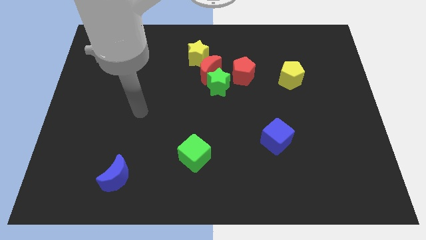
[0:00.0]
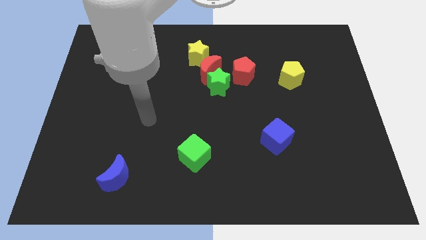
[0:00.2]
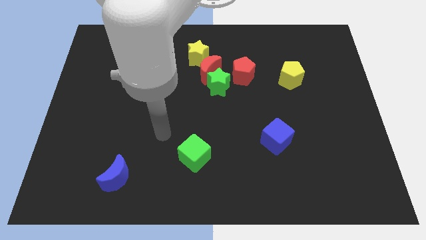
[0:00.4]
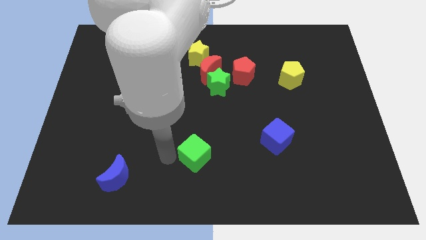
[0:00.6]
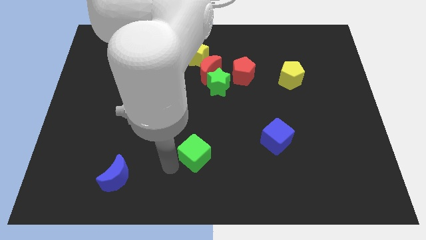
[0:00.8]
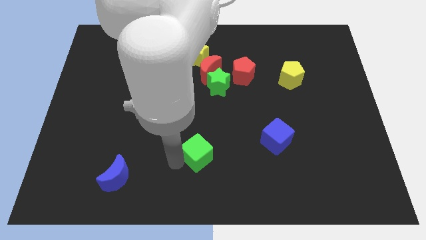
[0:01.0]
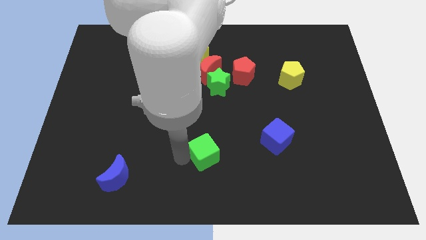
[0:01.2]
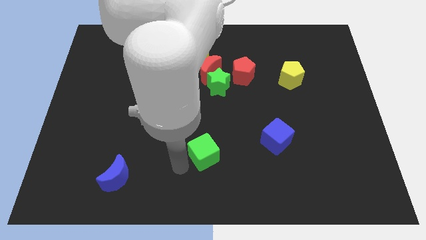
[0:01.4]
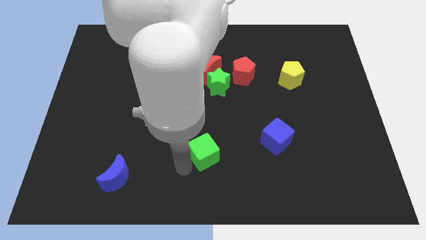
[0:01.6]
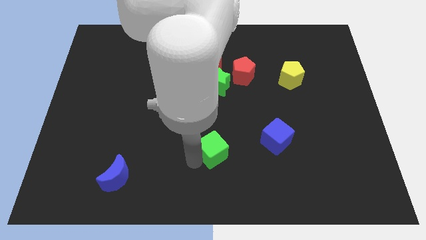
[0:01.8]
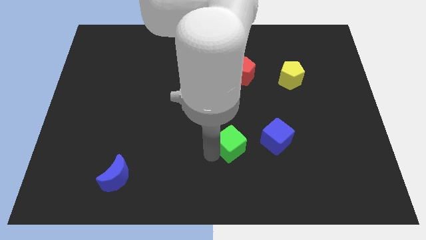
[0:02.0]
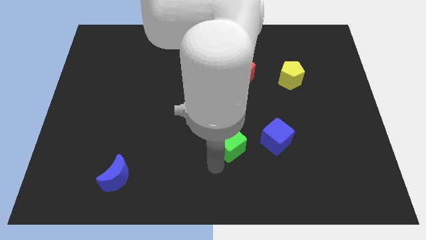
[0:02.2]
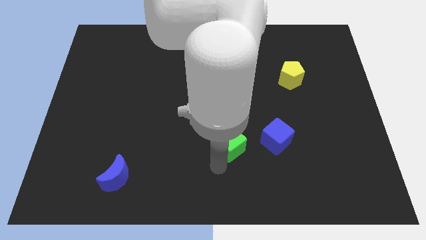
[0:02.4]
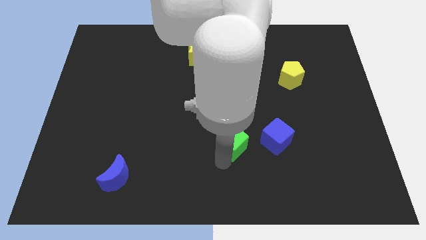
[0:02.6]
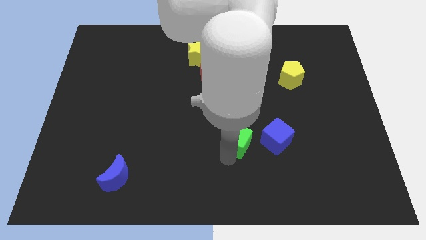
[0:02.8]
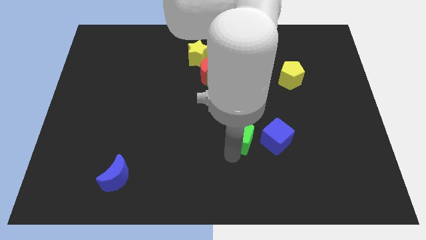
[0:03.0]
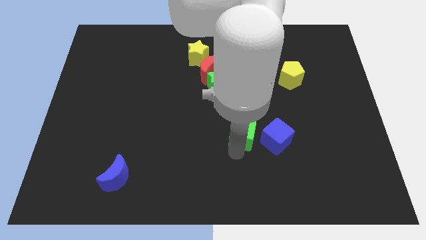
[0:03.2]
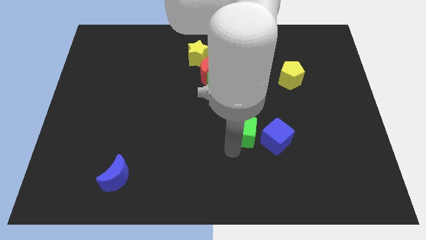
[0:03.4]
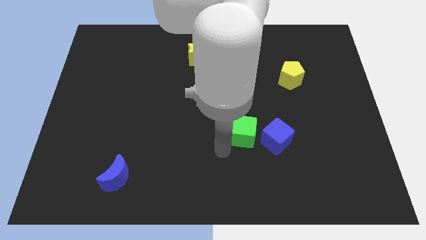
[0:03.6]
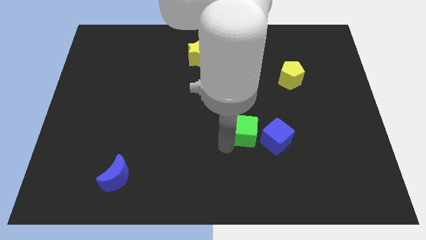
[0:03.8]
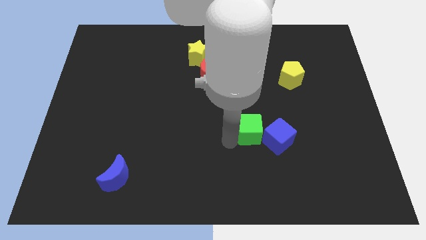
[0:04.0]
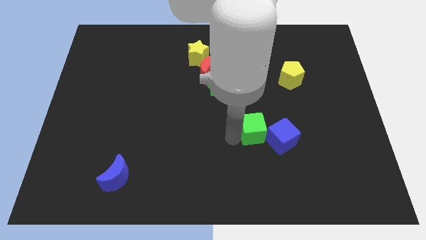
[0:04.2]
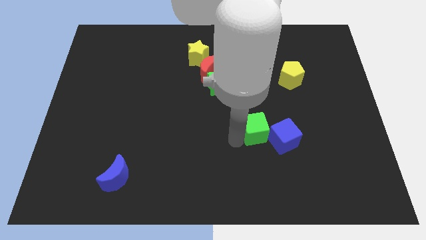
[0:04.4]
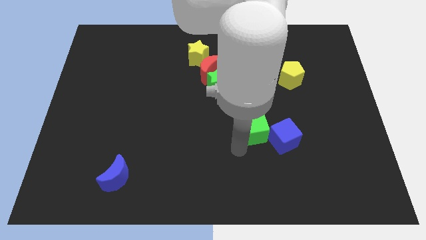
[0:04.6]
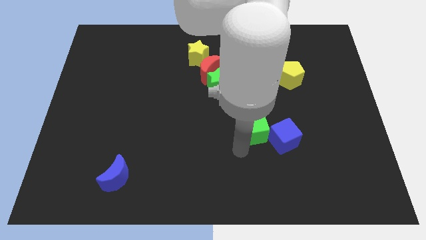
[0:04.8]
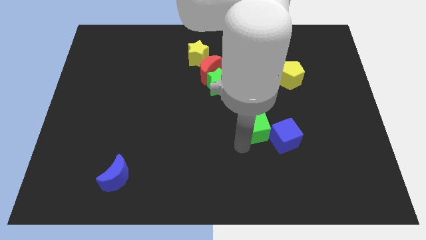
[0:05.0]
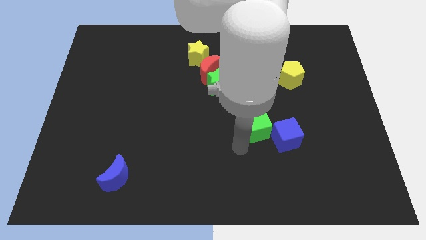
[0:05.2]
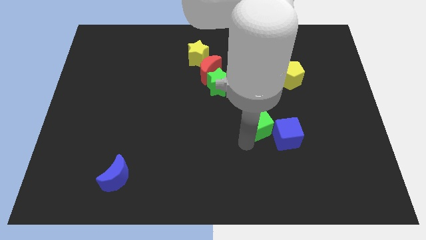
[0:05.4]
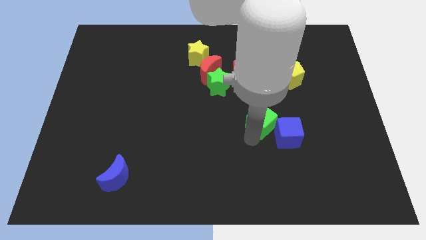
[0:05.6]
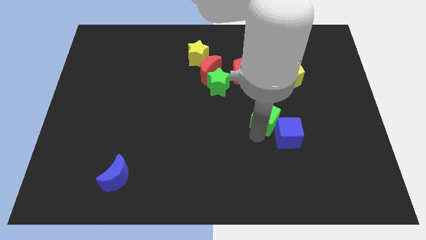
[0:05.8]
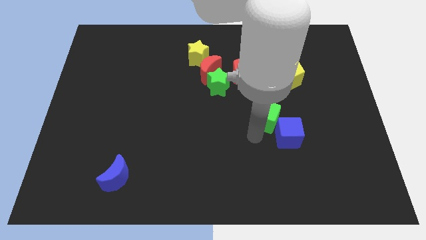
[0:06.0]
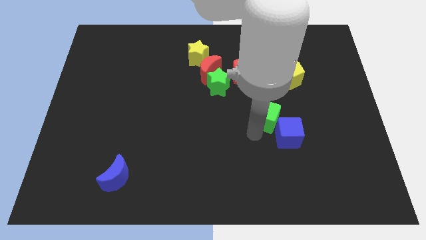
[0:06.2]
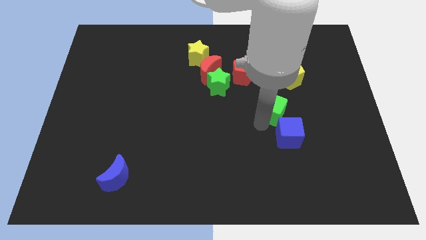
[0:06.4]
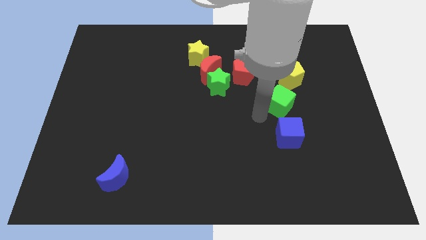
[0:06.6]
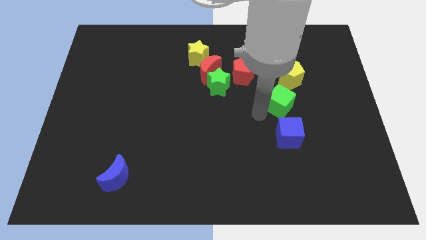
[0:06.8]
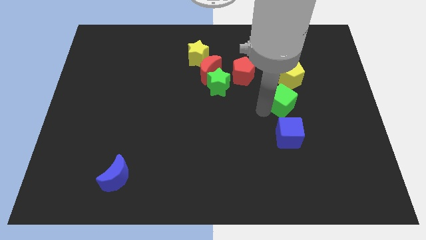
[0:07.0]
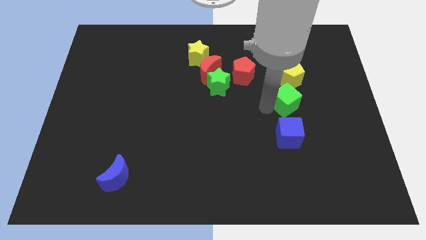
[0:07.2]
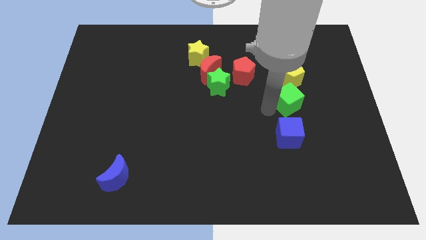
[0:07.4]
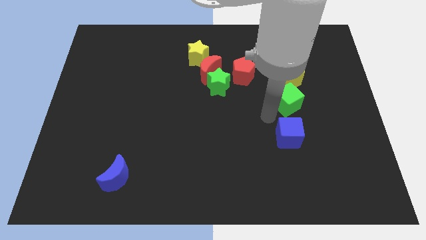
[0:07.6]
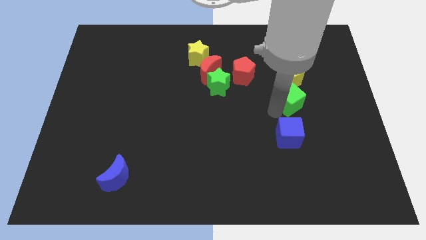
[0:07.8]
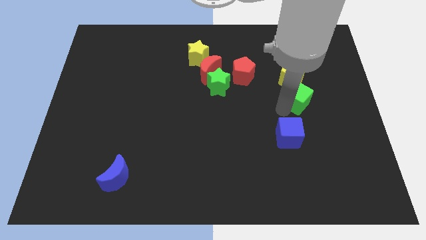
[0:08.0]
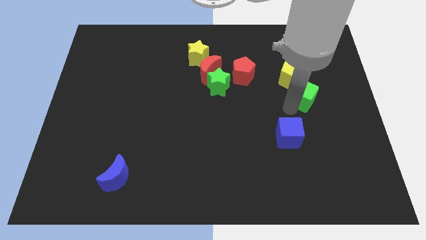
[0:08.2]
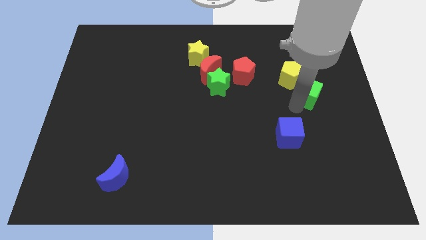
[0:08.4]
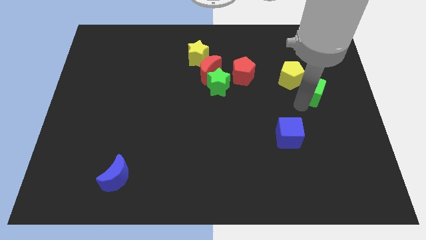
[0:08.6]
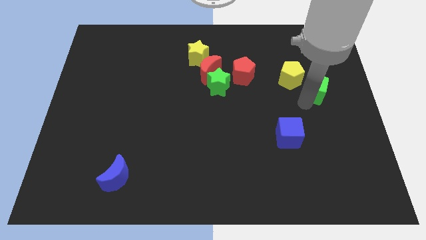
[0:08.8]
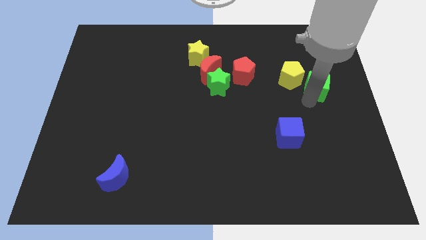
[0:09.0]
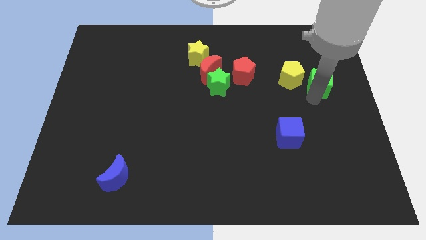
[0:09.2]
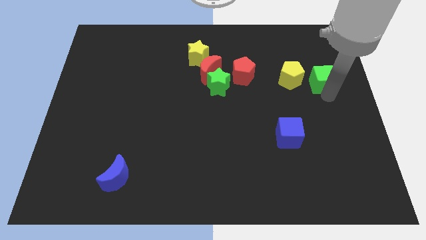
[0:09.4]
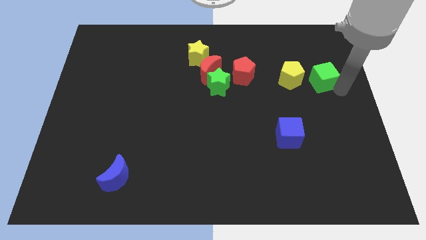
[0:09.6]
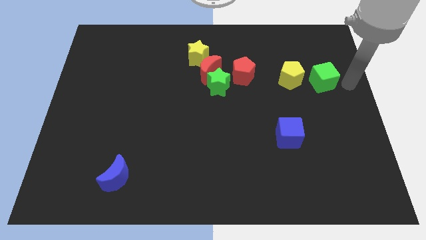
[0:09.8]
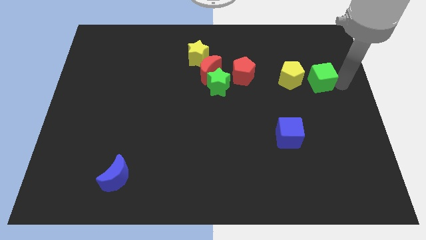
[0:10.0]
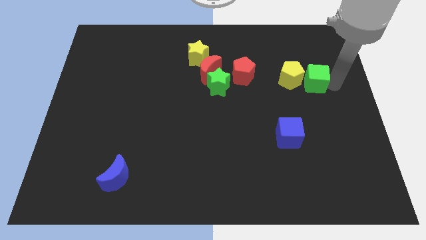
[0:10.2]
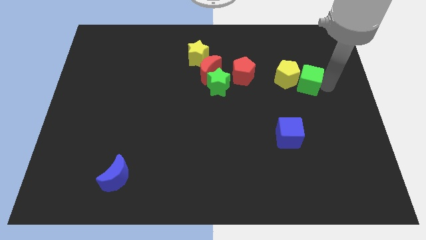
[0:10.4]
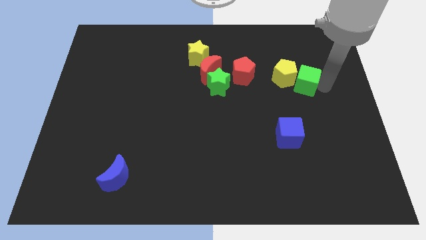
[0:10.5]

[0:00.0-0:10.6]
slide the green cube just right of the red pentagon

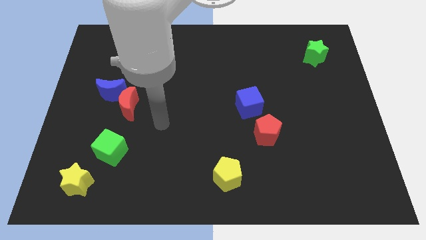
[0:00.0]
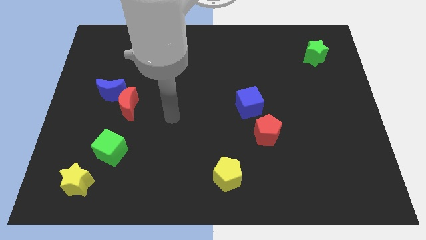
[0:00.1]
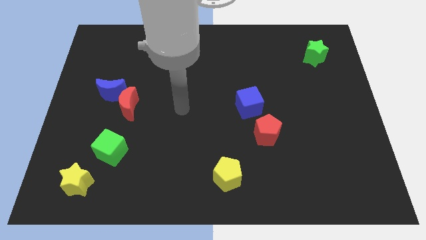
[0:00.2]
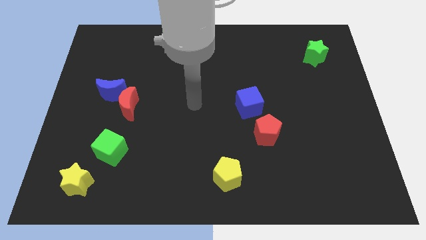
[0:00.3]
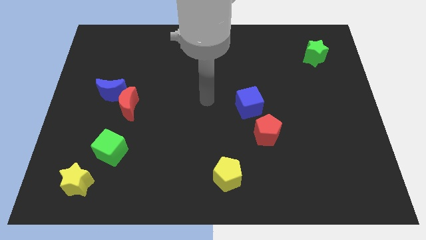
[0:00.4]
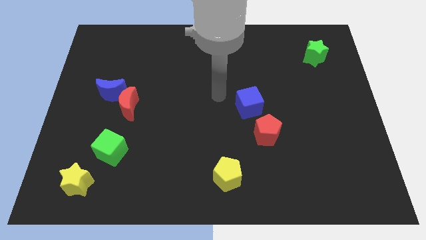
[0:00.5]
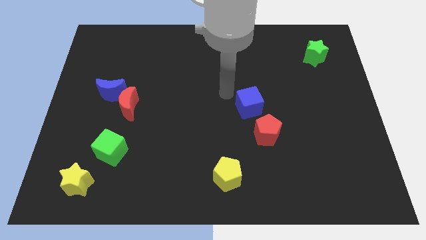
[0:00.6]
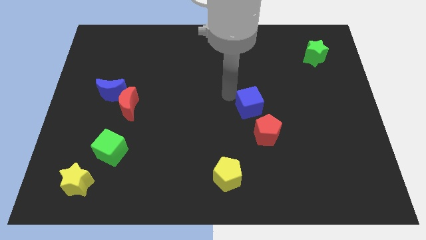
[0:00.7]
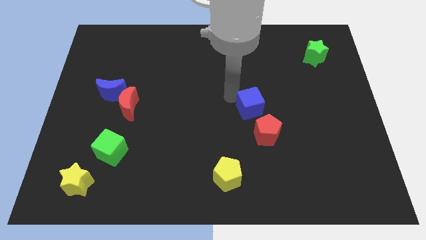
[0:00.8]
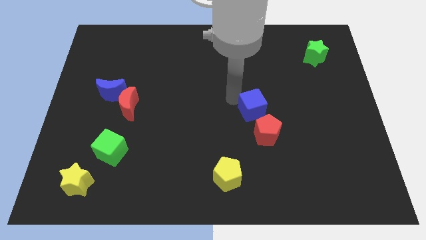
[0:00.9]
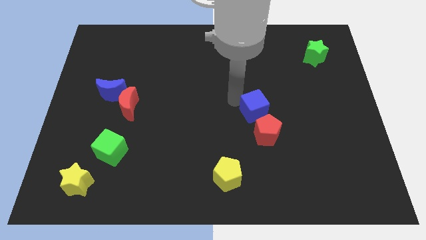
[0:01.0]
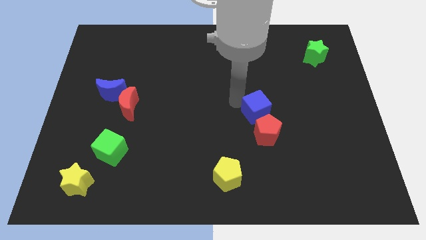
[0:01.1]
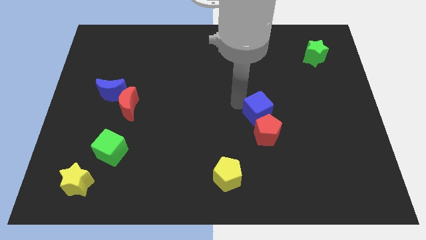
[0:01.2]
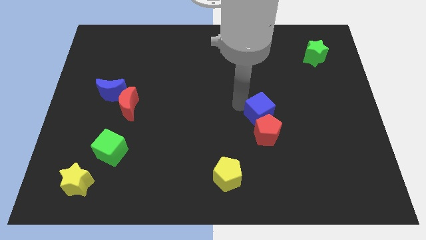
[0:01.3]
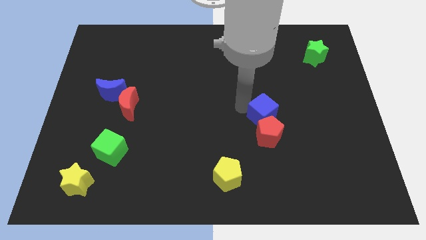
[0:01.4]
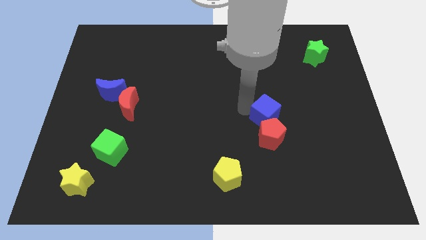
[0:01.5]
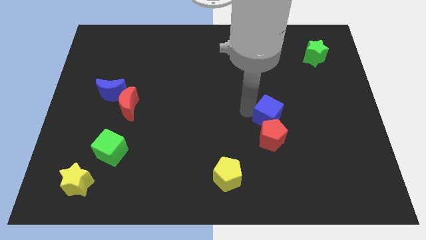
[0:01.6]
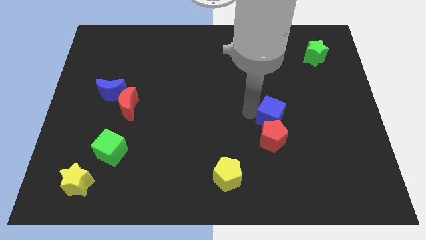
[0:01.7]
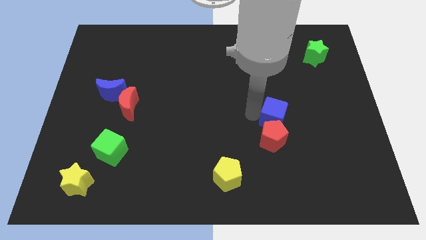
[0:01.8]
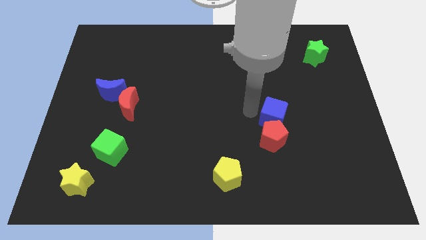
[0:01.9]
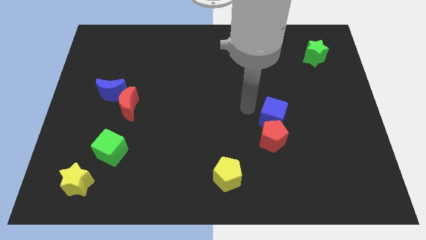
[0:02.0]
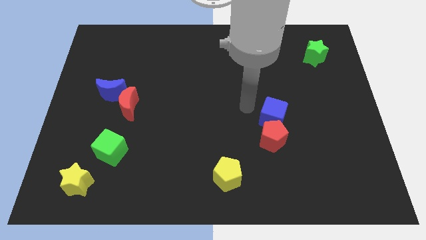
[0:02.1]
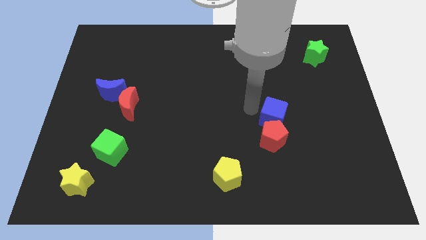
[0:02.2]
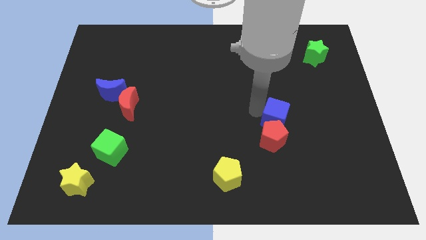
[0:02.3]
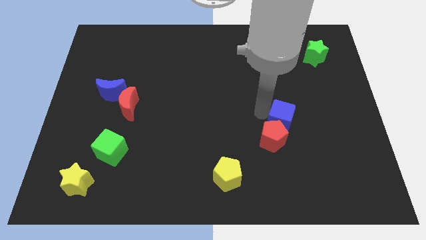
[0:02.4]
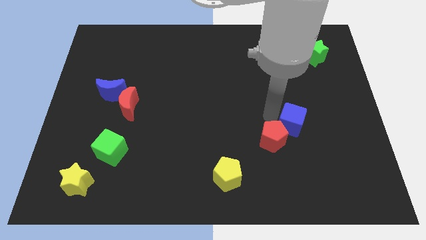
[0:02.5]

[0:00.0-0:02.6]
put the blue cube to the right of the red pentagon
